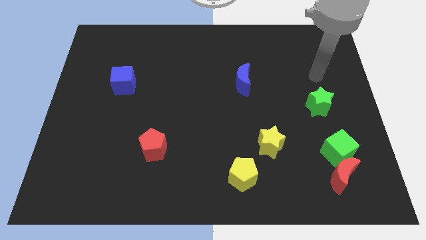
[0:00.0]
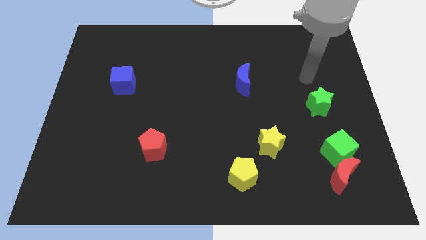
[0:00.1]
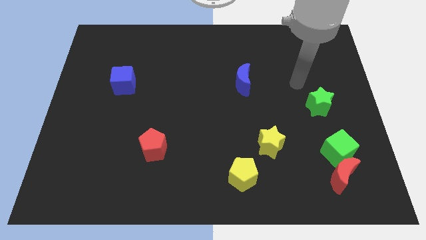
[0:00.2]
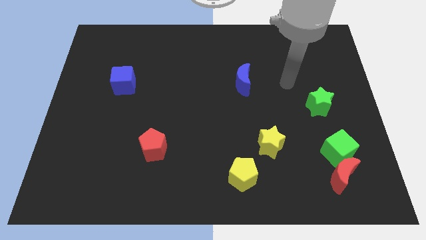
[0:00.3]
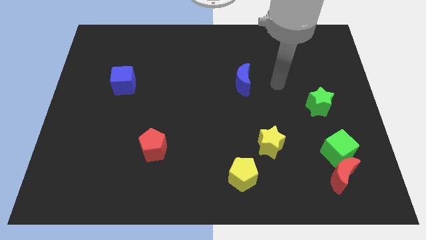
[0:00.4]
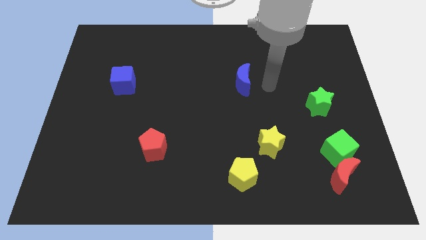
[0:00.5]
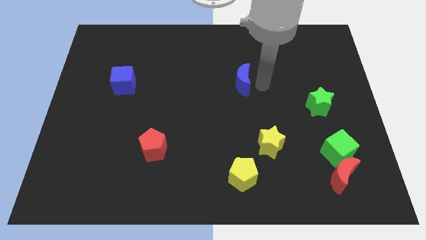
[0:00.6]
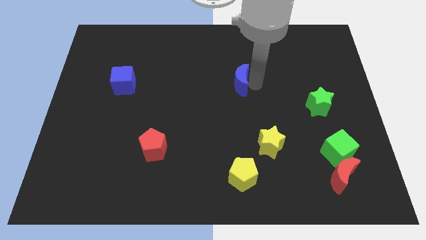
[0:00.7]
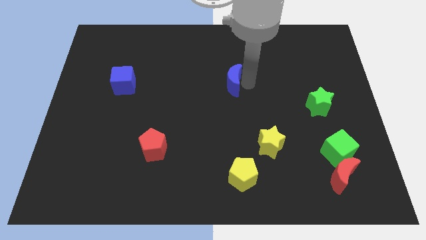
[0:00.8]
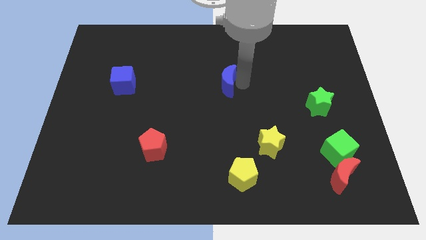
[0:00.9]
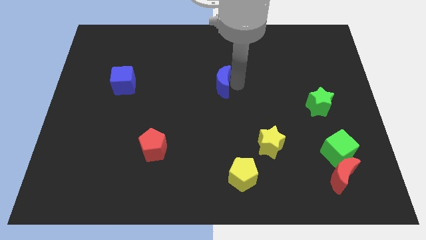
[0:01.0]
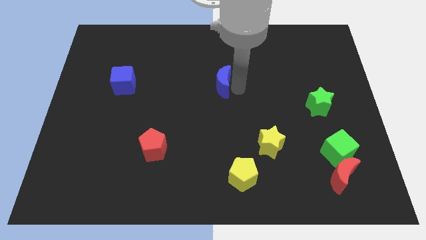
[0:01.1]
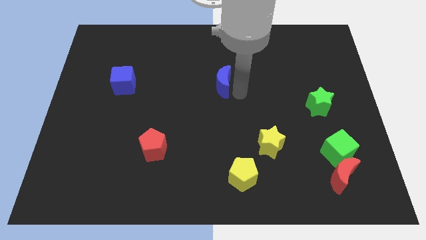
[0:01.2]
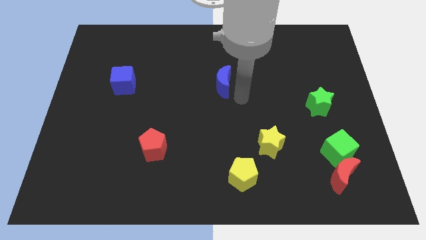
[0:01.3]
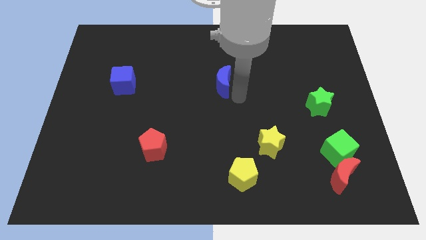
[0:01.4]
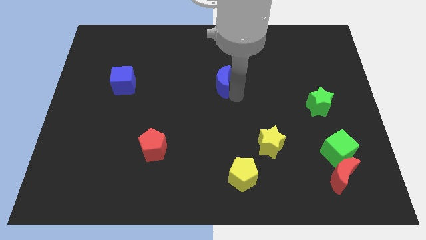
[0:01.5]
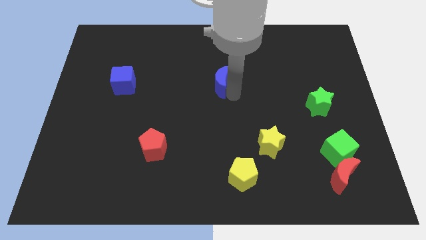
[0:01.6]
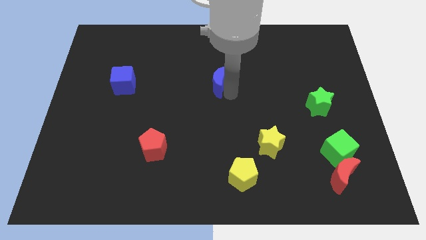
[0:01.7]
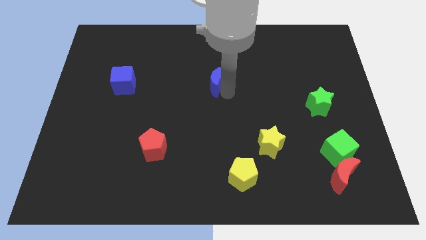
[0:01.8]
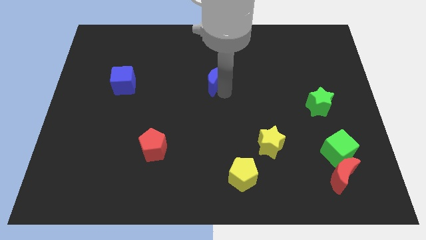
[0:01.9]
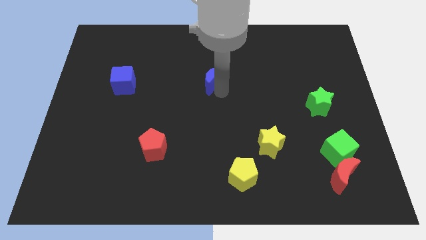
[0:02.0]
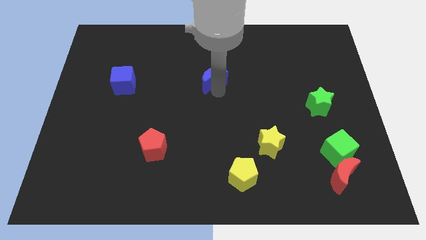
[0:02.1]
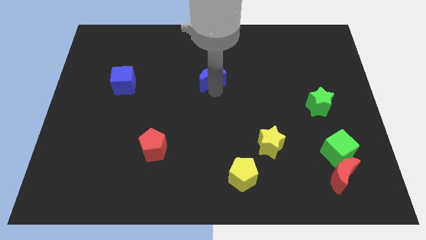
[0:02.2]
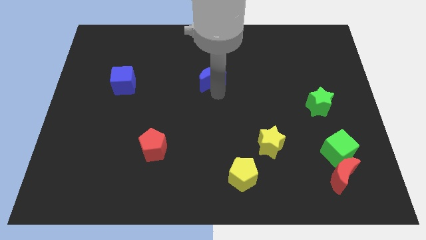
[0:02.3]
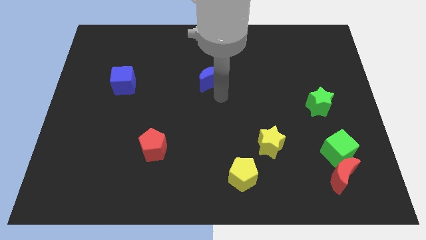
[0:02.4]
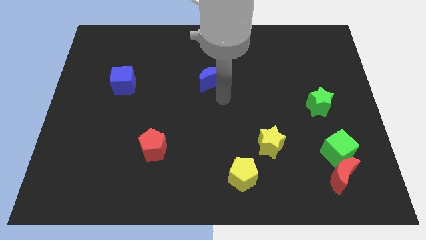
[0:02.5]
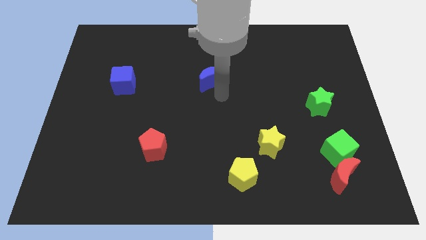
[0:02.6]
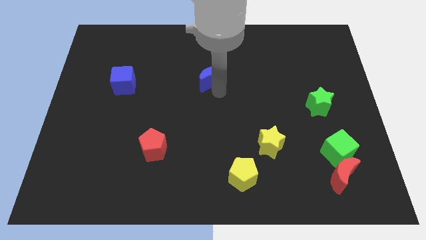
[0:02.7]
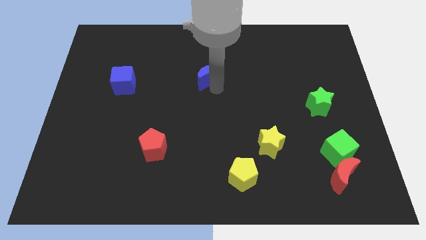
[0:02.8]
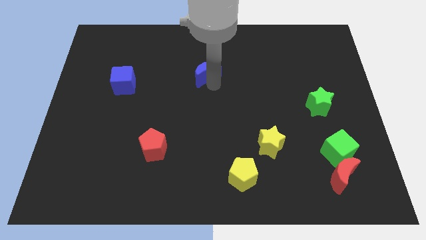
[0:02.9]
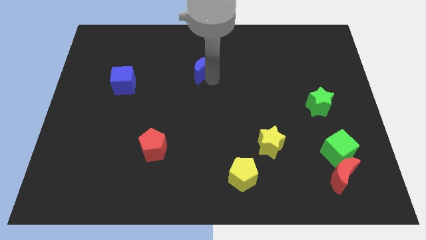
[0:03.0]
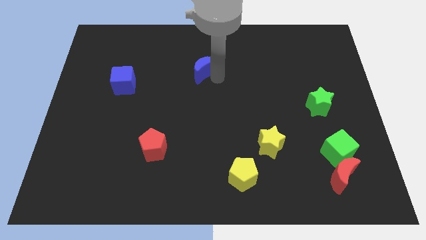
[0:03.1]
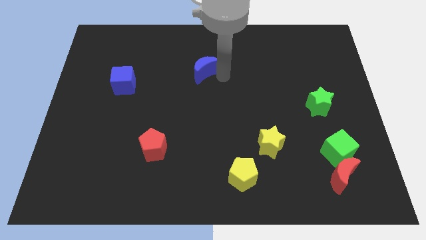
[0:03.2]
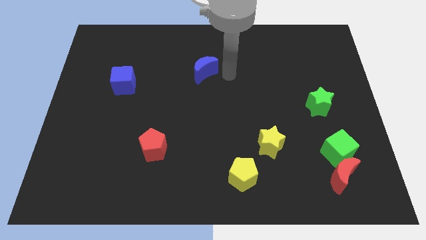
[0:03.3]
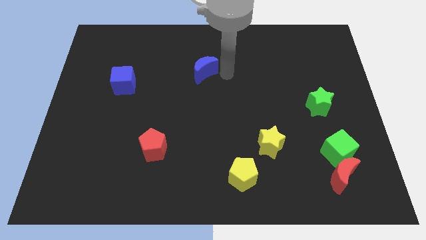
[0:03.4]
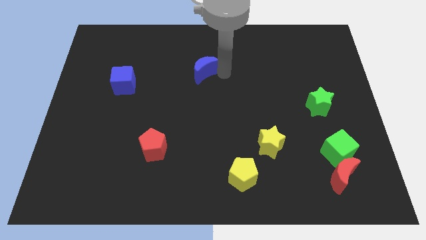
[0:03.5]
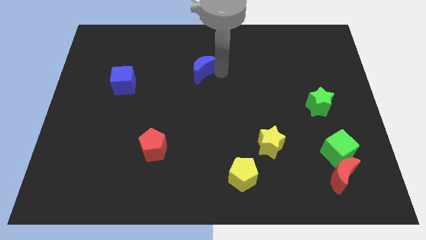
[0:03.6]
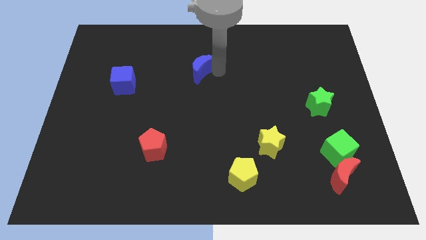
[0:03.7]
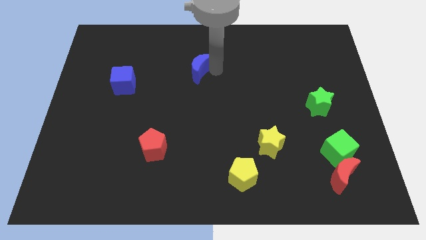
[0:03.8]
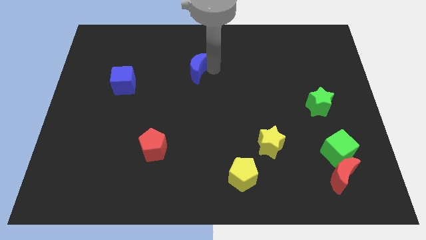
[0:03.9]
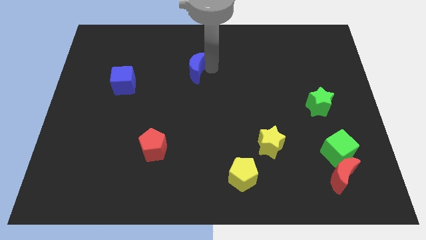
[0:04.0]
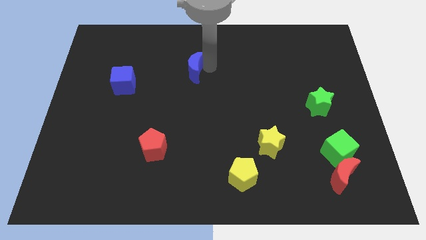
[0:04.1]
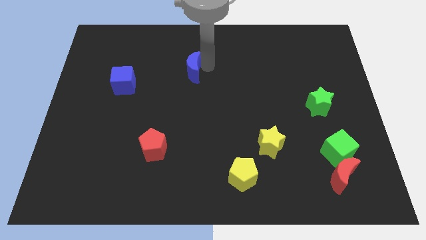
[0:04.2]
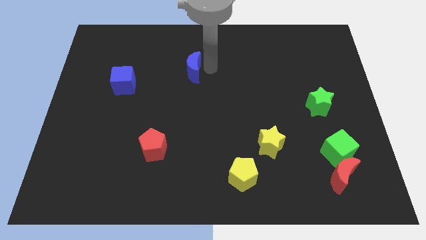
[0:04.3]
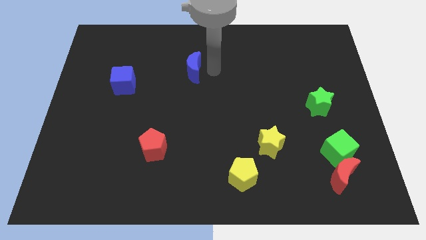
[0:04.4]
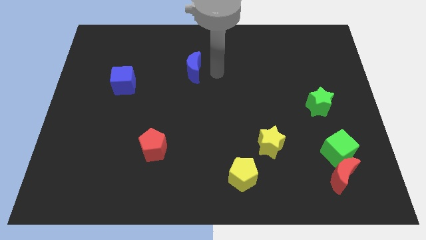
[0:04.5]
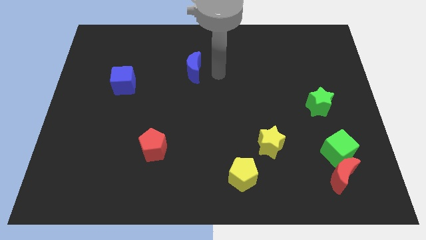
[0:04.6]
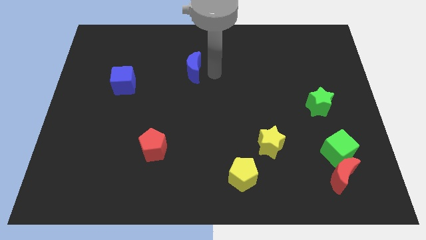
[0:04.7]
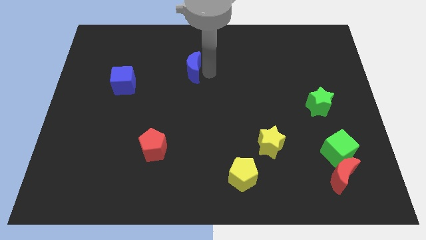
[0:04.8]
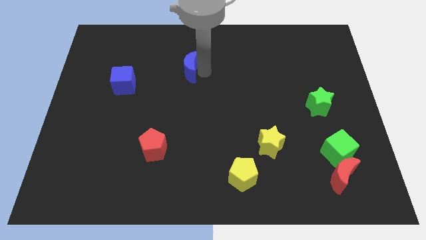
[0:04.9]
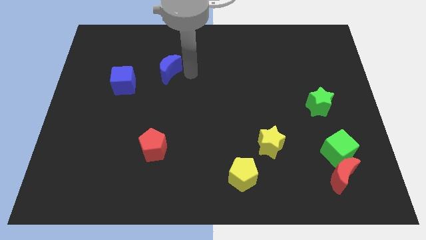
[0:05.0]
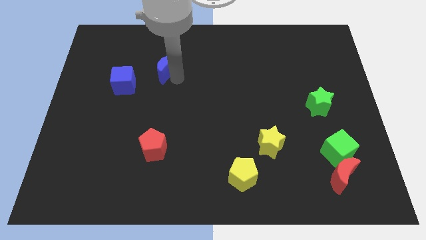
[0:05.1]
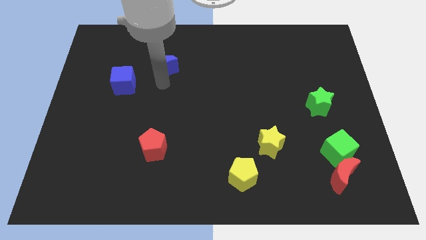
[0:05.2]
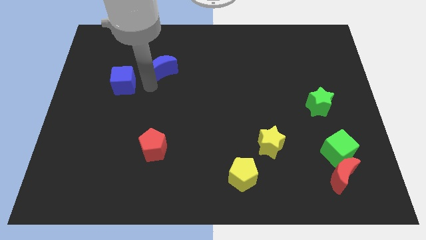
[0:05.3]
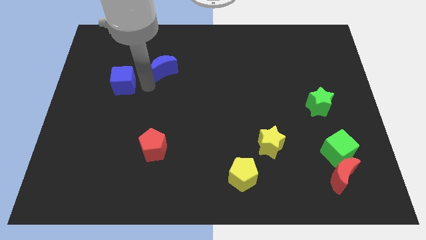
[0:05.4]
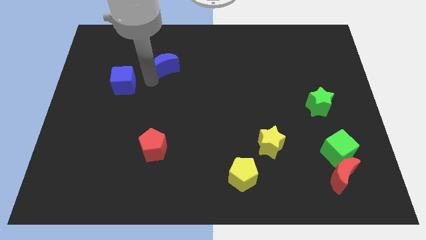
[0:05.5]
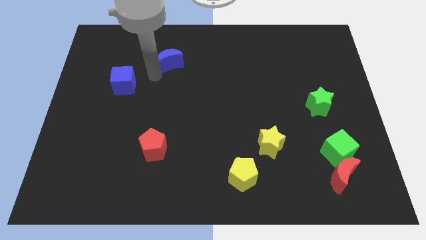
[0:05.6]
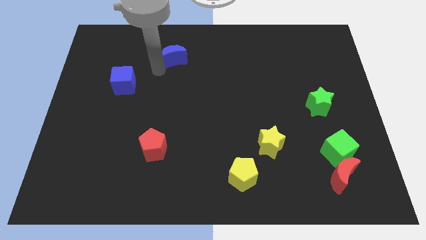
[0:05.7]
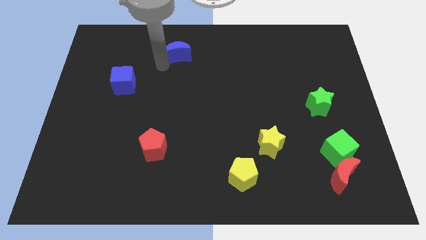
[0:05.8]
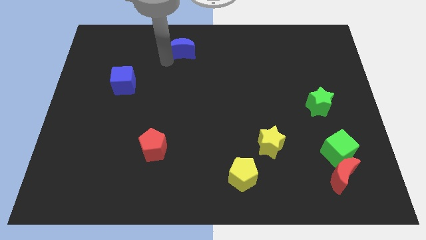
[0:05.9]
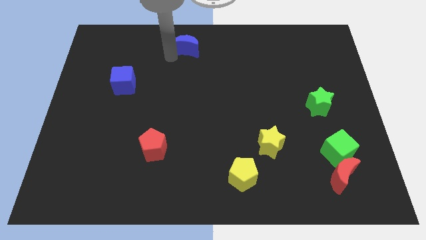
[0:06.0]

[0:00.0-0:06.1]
move the blue moon to the towards your base
